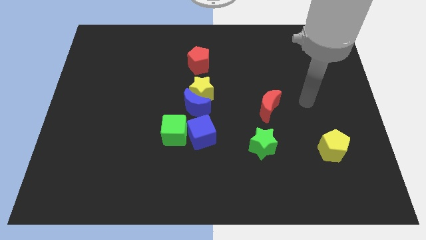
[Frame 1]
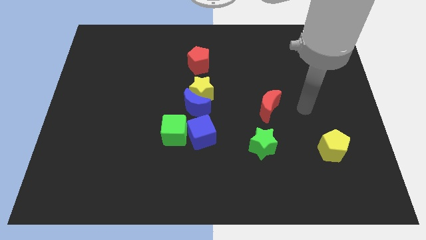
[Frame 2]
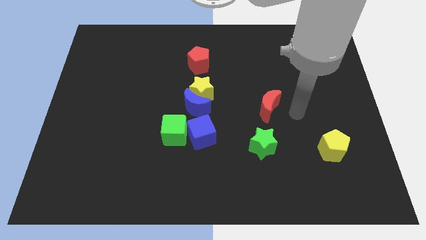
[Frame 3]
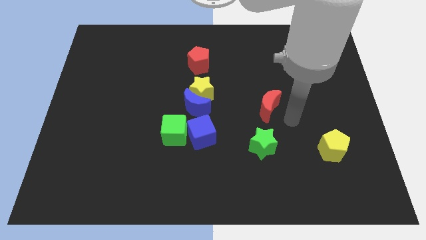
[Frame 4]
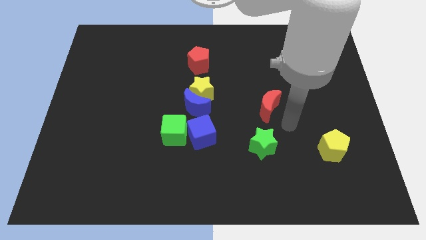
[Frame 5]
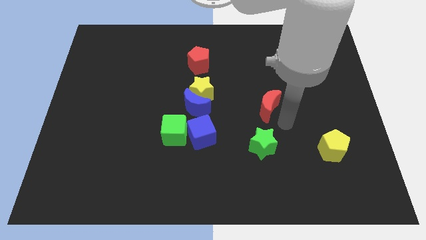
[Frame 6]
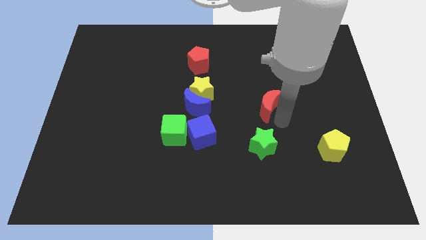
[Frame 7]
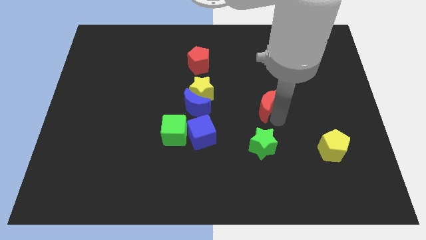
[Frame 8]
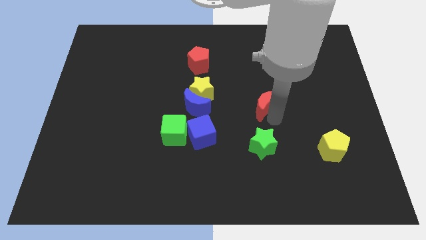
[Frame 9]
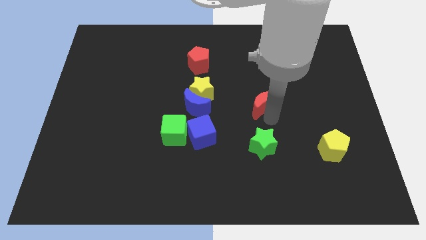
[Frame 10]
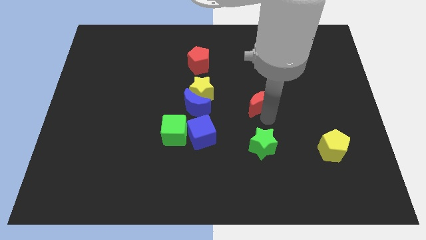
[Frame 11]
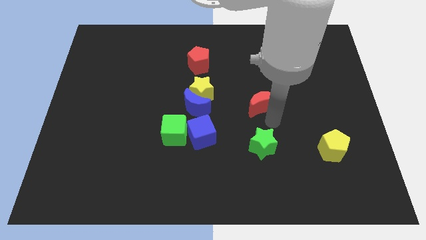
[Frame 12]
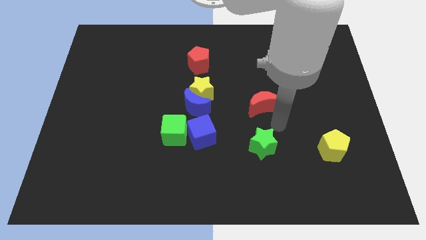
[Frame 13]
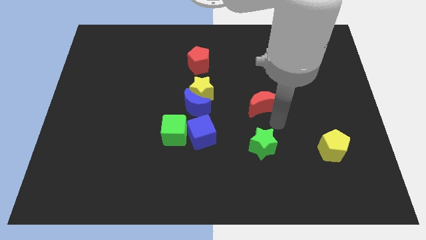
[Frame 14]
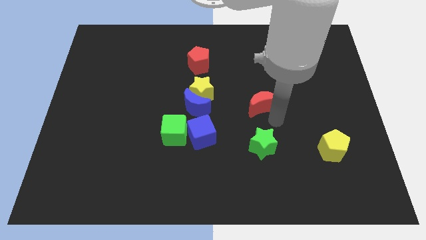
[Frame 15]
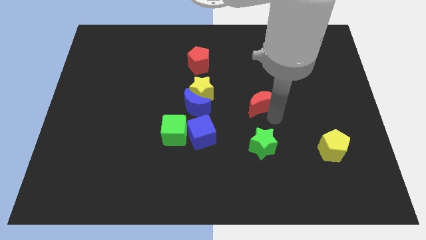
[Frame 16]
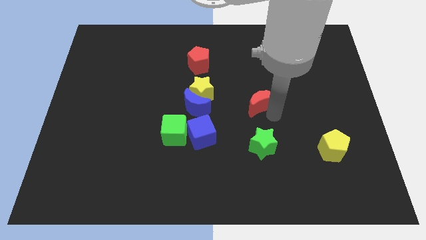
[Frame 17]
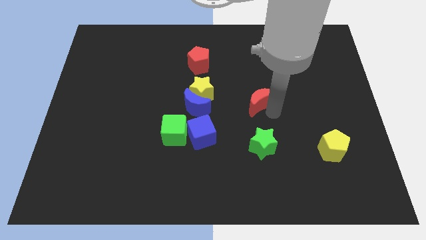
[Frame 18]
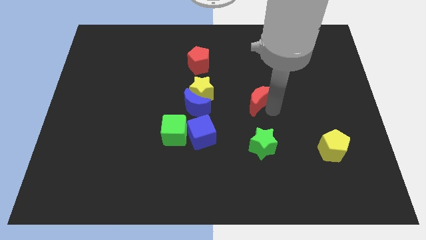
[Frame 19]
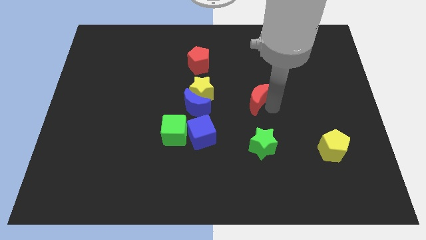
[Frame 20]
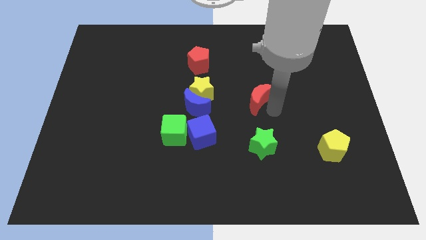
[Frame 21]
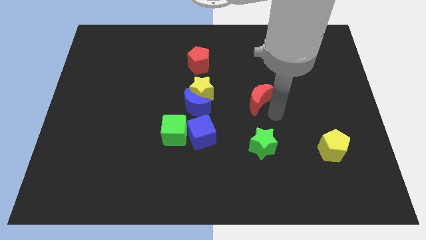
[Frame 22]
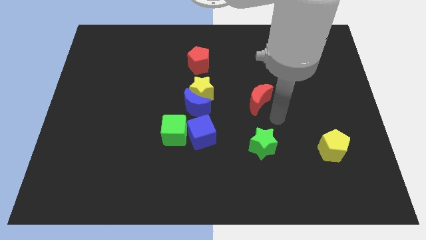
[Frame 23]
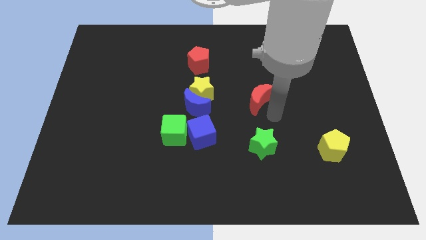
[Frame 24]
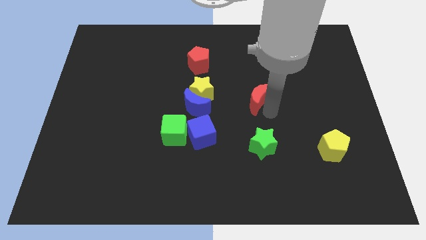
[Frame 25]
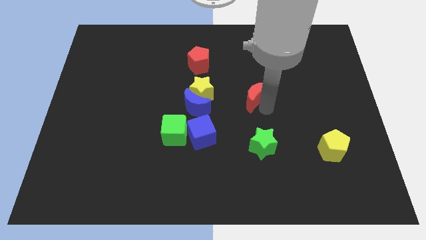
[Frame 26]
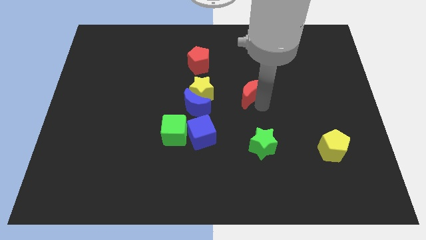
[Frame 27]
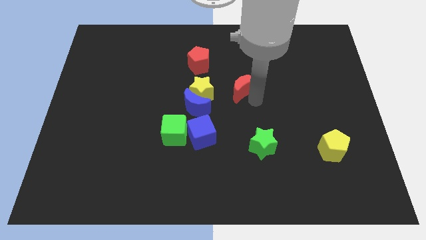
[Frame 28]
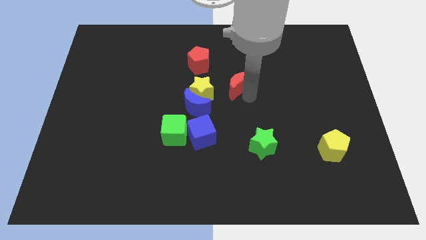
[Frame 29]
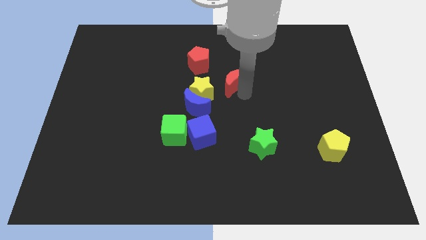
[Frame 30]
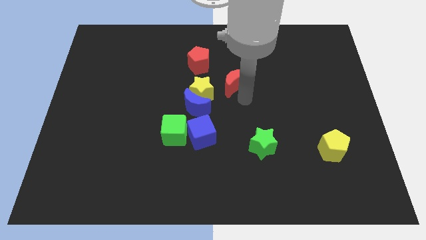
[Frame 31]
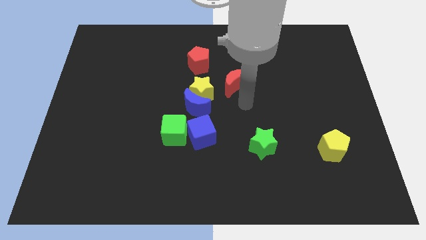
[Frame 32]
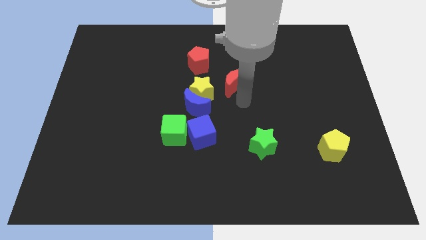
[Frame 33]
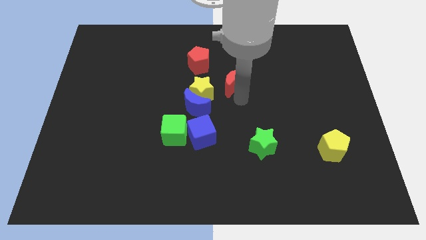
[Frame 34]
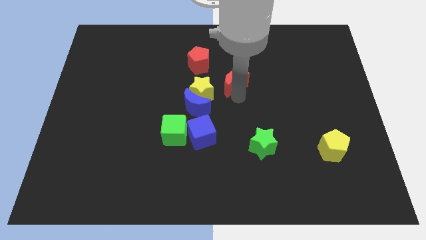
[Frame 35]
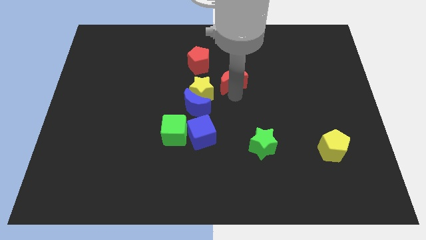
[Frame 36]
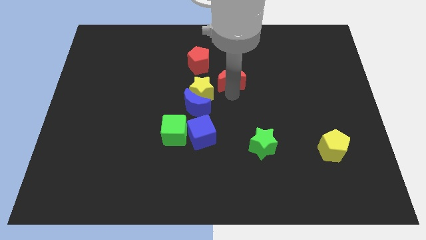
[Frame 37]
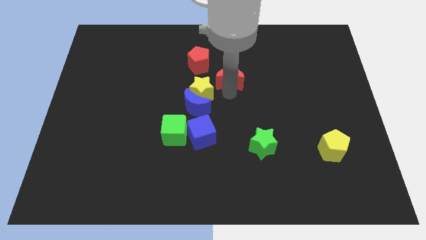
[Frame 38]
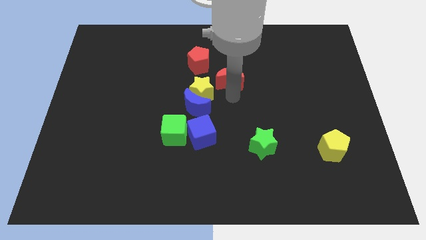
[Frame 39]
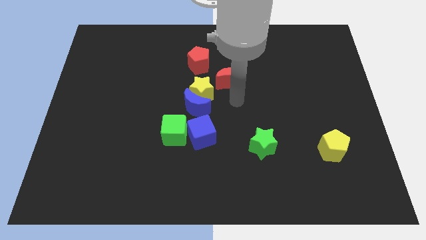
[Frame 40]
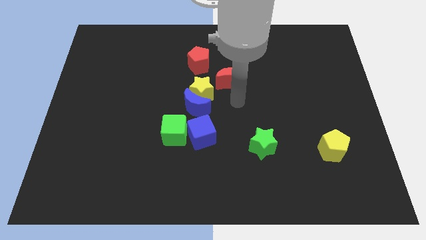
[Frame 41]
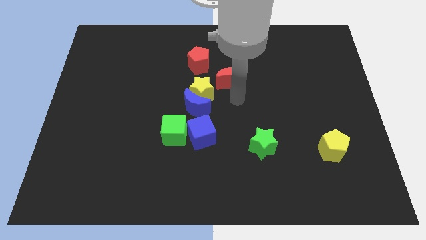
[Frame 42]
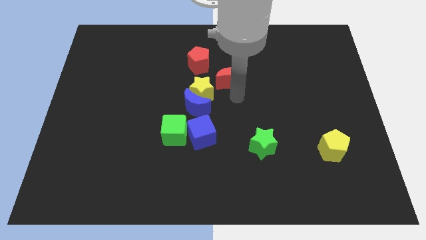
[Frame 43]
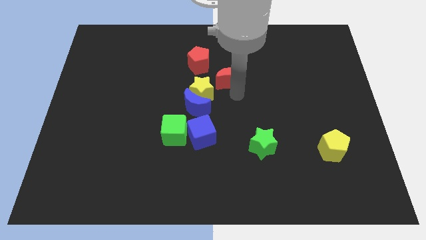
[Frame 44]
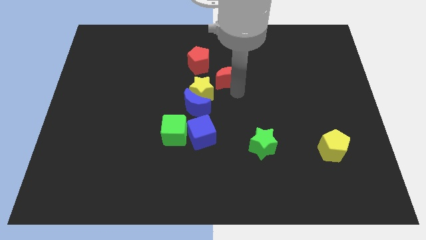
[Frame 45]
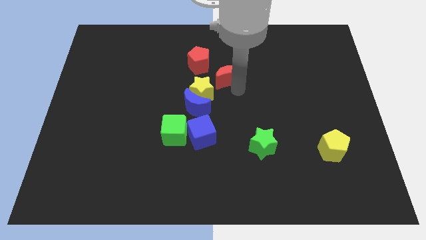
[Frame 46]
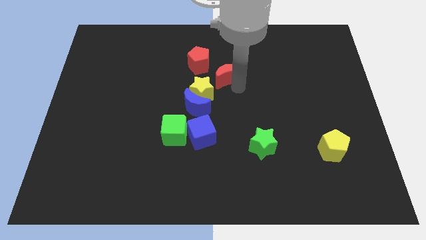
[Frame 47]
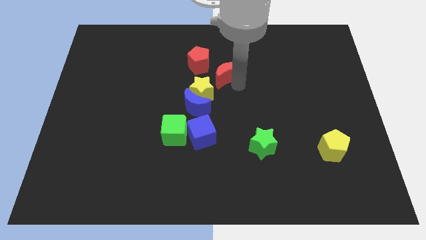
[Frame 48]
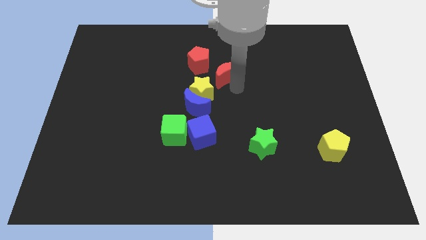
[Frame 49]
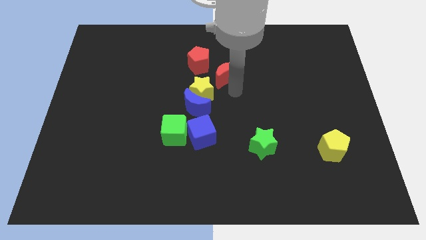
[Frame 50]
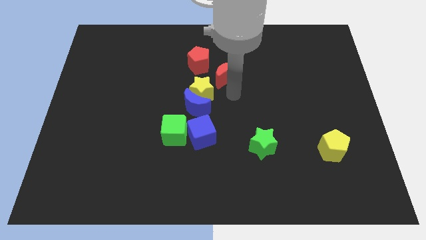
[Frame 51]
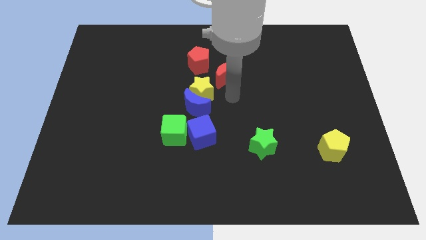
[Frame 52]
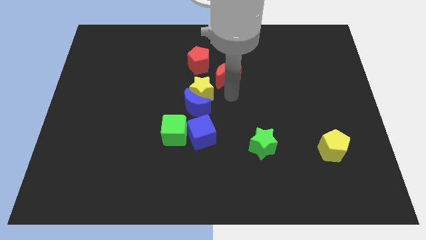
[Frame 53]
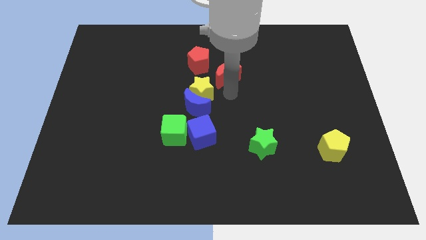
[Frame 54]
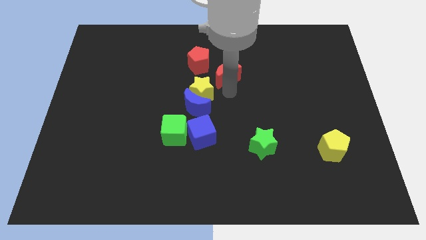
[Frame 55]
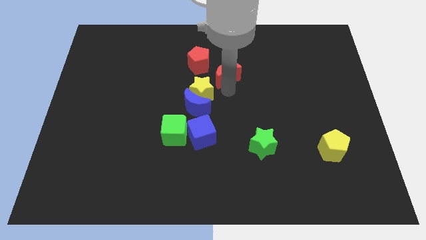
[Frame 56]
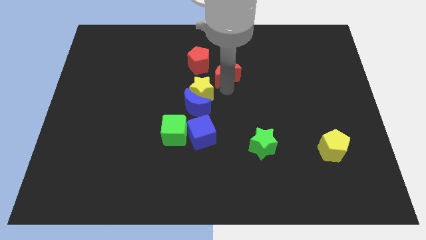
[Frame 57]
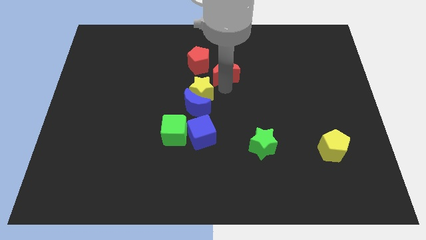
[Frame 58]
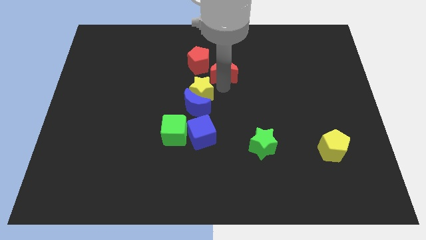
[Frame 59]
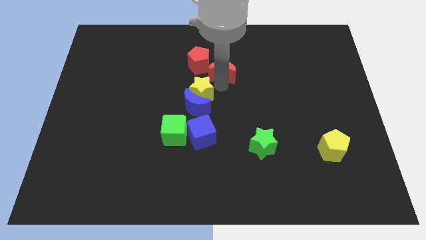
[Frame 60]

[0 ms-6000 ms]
move the red moon above the yellow star

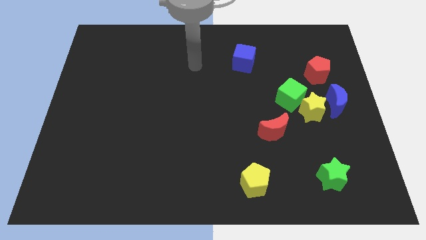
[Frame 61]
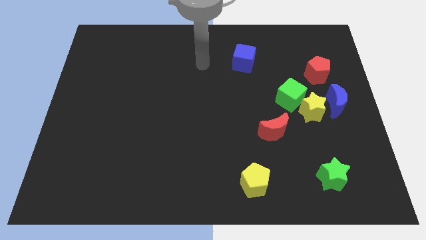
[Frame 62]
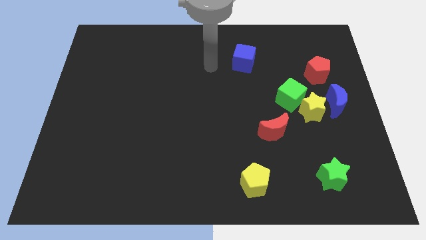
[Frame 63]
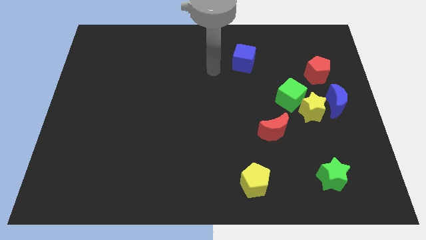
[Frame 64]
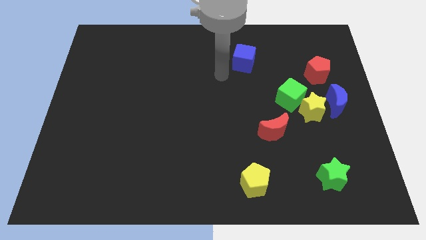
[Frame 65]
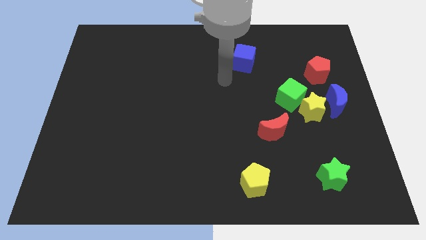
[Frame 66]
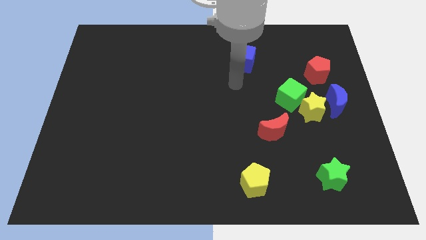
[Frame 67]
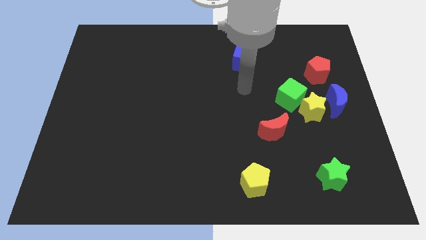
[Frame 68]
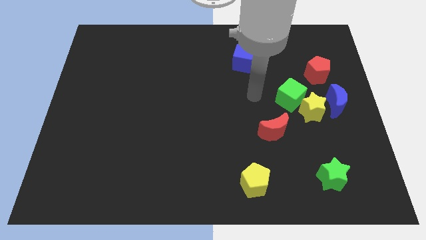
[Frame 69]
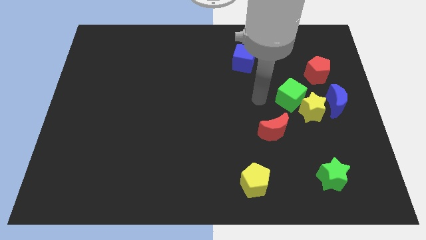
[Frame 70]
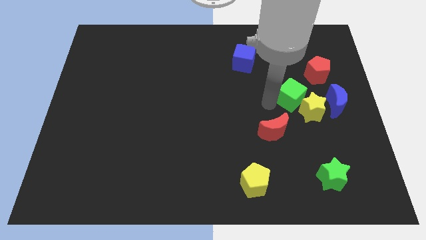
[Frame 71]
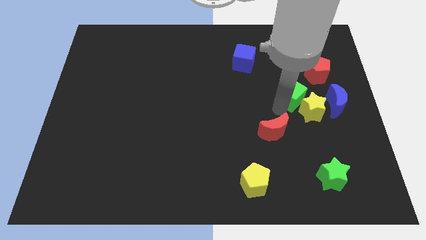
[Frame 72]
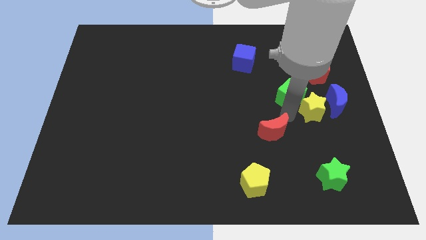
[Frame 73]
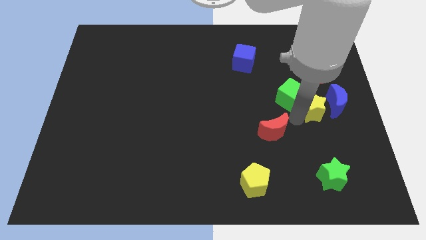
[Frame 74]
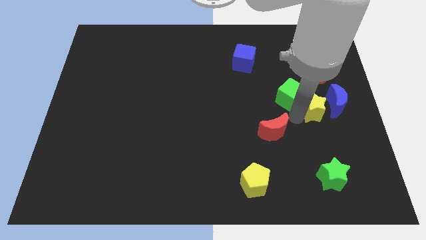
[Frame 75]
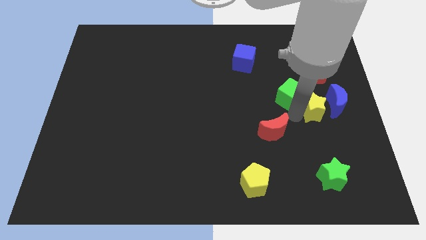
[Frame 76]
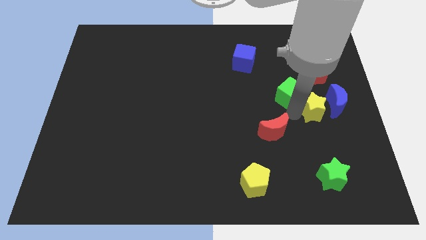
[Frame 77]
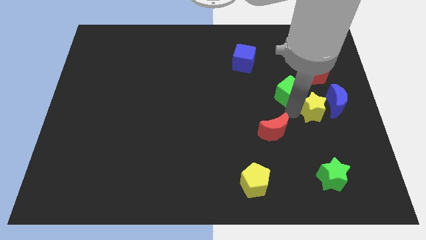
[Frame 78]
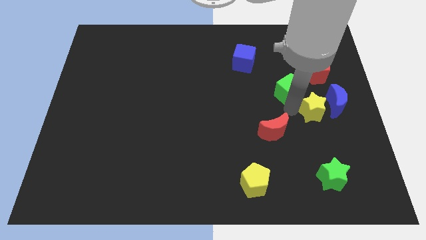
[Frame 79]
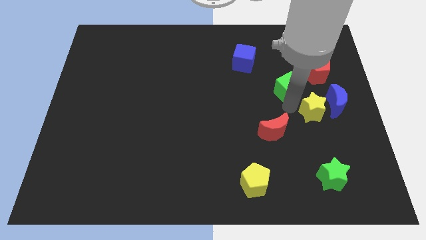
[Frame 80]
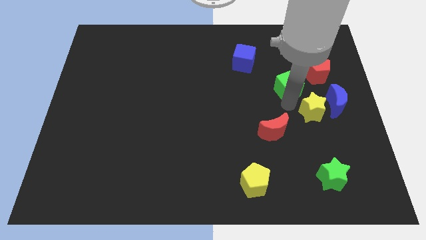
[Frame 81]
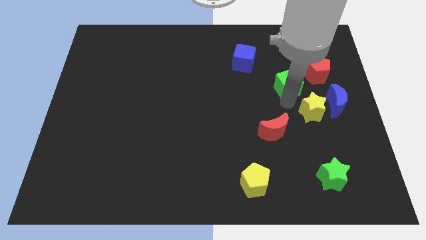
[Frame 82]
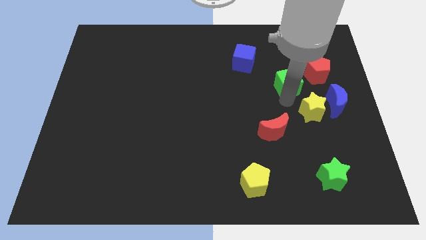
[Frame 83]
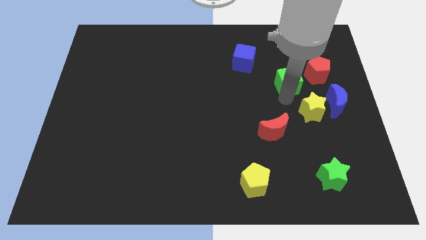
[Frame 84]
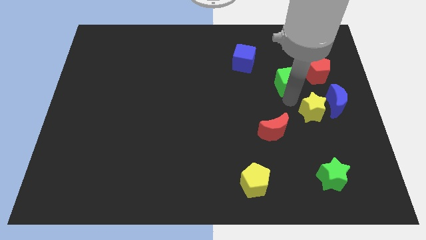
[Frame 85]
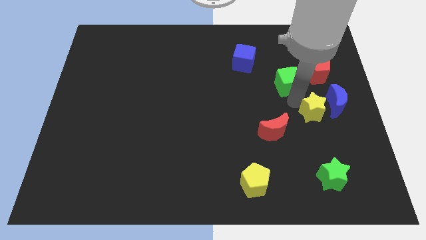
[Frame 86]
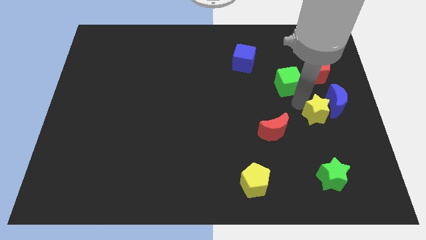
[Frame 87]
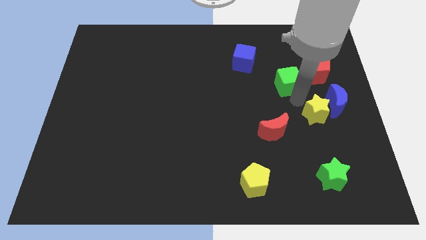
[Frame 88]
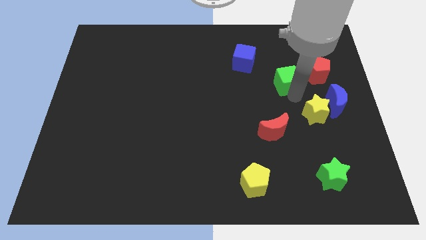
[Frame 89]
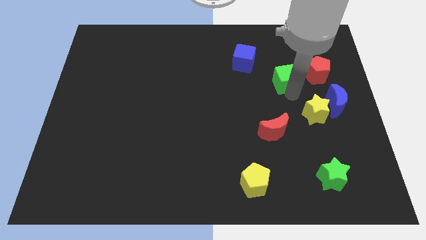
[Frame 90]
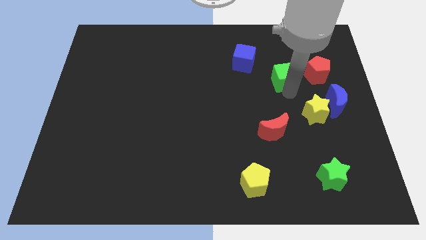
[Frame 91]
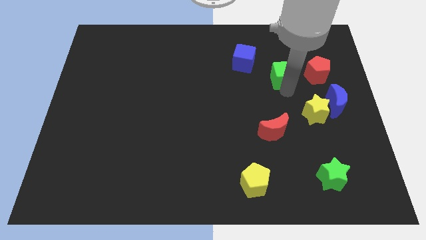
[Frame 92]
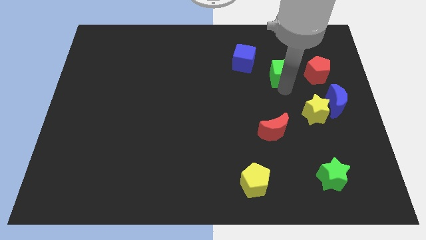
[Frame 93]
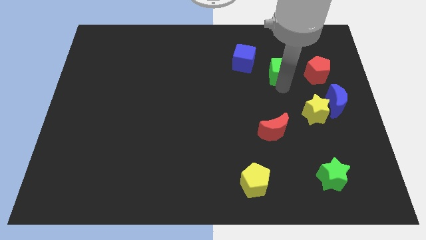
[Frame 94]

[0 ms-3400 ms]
put the green cube to the right of the blue cube
